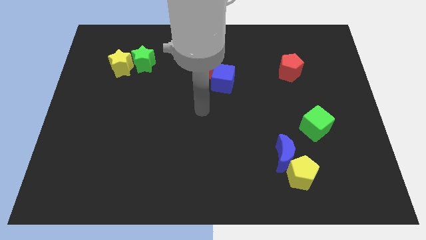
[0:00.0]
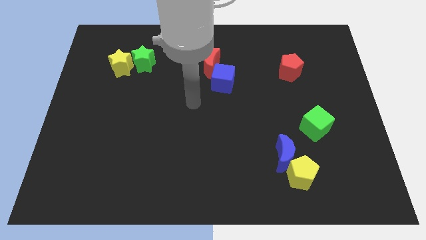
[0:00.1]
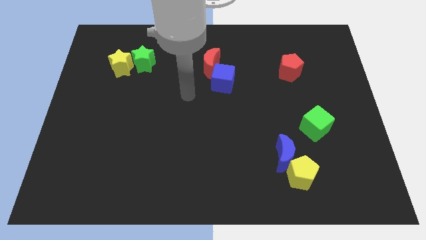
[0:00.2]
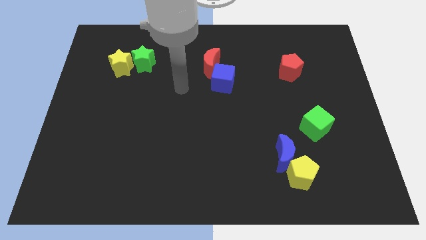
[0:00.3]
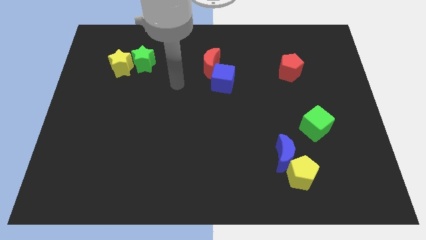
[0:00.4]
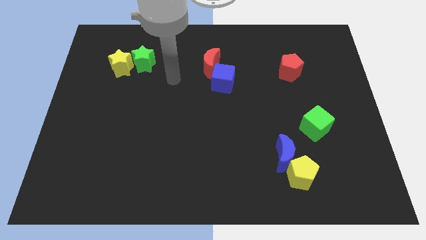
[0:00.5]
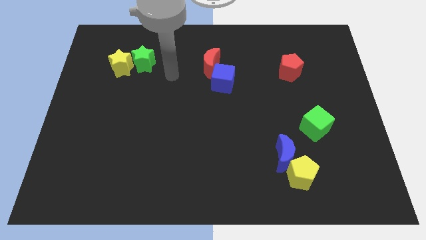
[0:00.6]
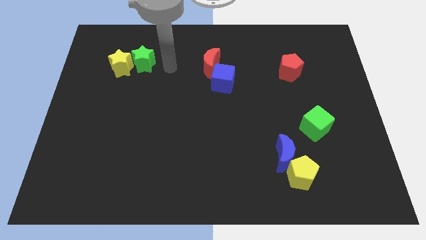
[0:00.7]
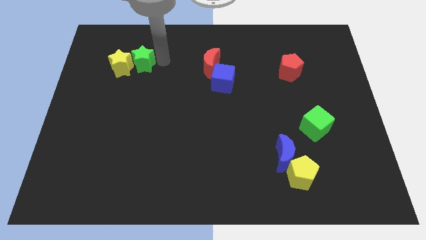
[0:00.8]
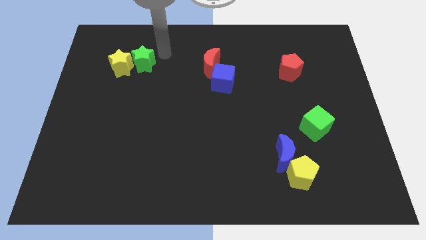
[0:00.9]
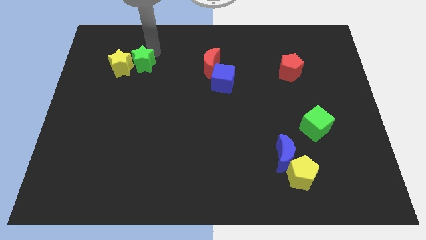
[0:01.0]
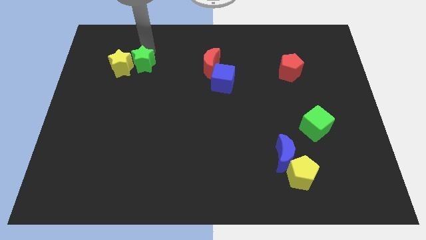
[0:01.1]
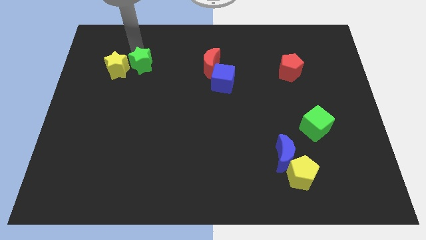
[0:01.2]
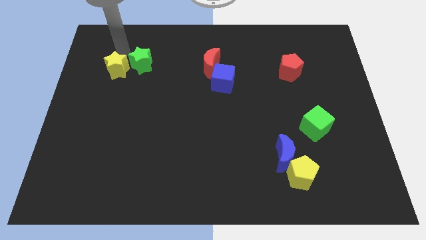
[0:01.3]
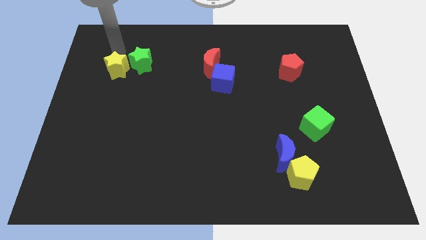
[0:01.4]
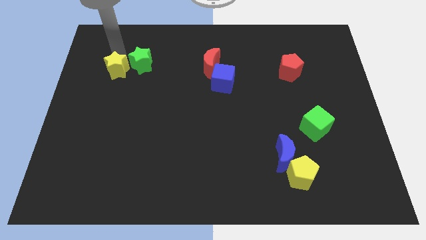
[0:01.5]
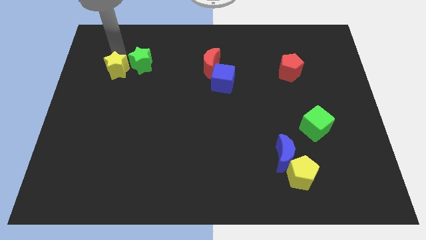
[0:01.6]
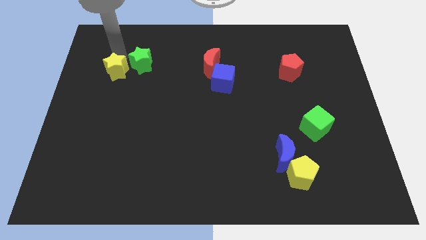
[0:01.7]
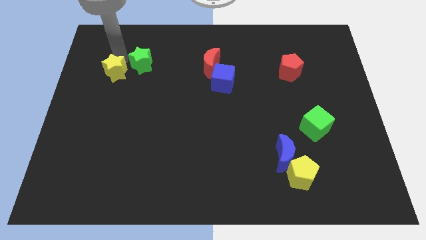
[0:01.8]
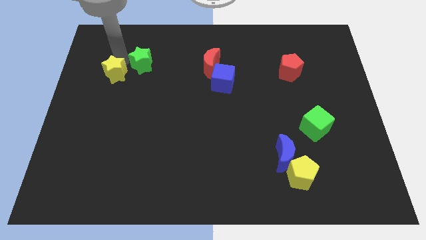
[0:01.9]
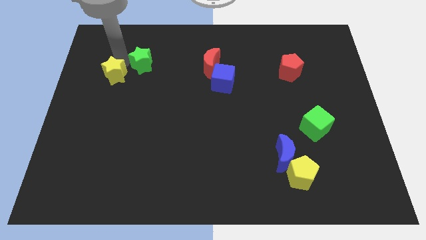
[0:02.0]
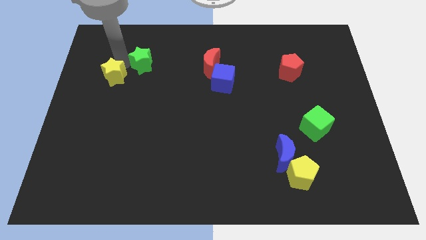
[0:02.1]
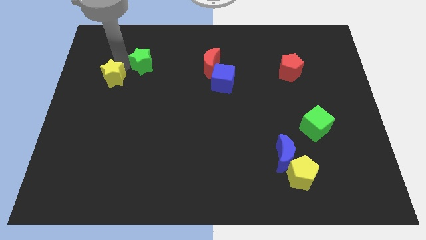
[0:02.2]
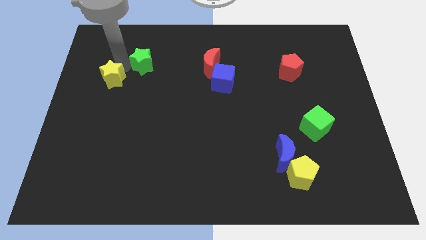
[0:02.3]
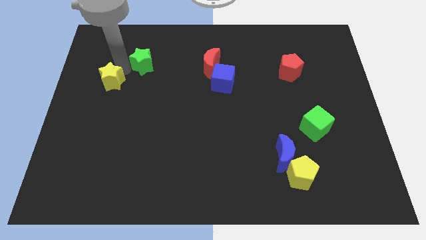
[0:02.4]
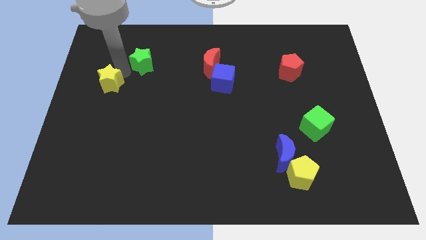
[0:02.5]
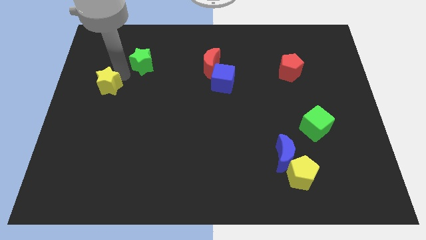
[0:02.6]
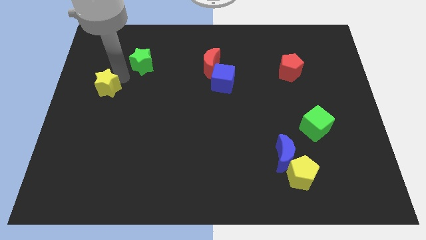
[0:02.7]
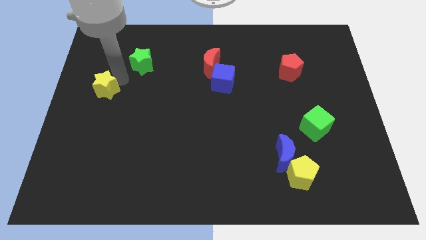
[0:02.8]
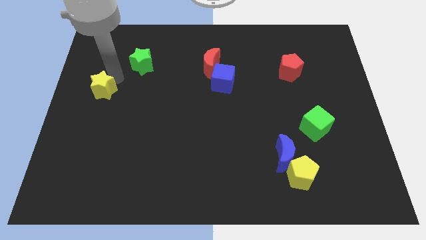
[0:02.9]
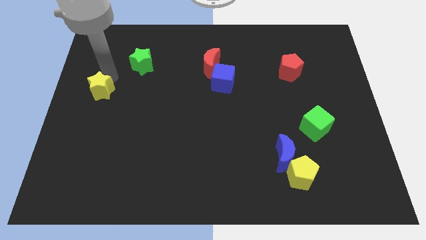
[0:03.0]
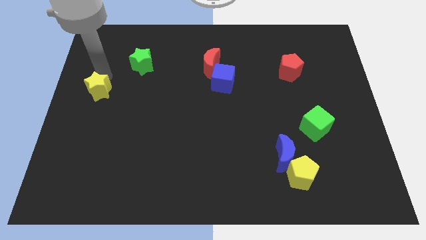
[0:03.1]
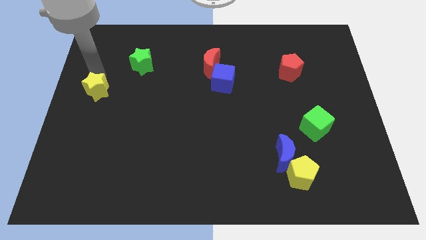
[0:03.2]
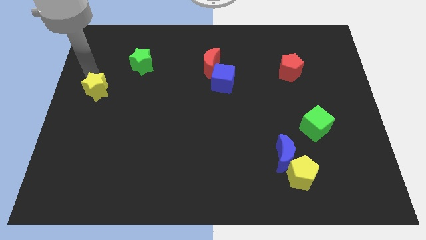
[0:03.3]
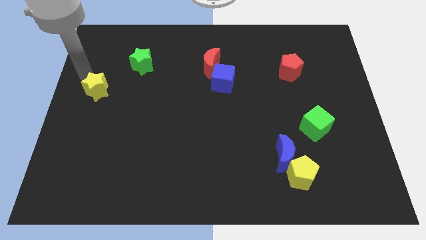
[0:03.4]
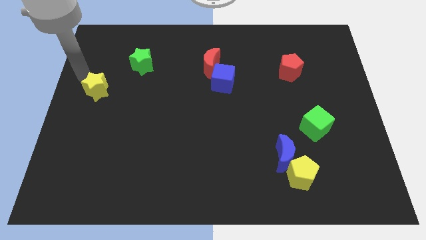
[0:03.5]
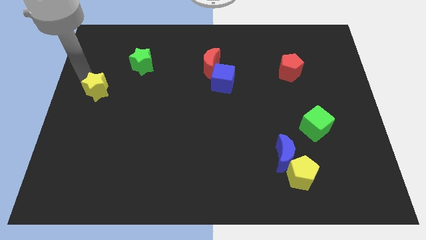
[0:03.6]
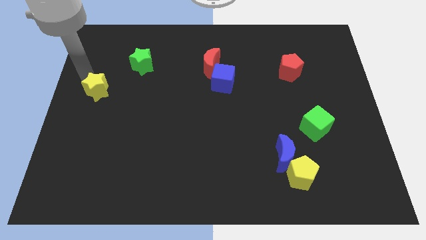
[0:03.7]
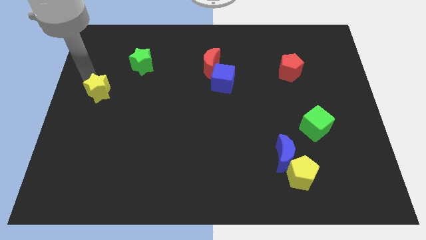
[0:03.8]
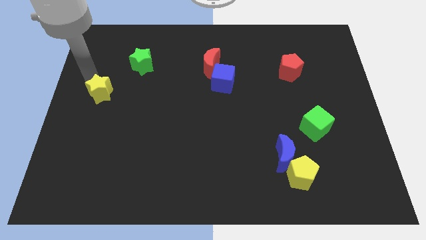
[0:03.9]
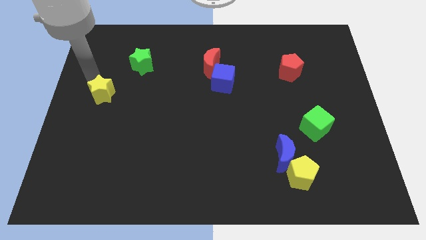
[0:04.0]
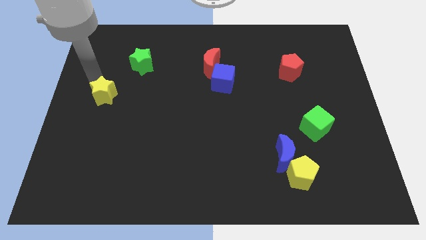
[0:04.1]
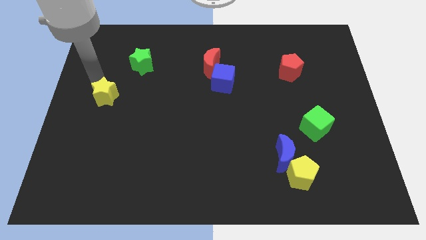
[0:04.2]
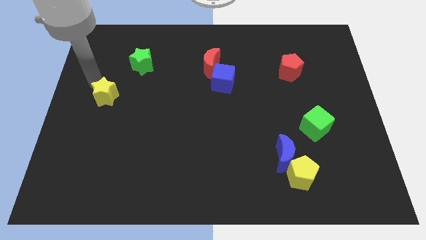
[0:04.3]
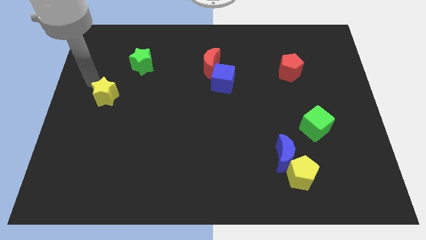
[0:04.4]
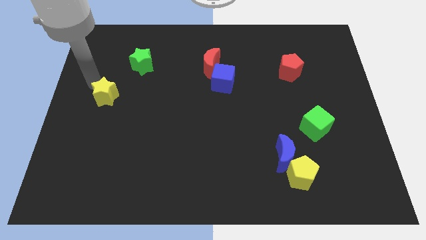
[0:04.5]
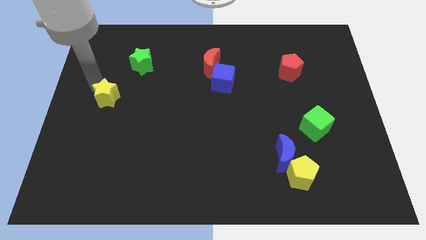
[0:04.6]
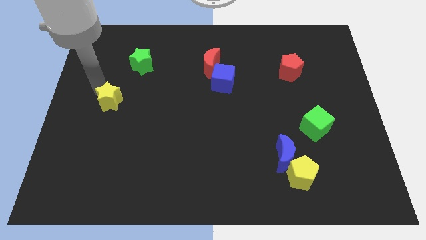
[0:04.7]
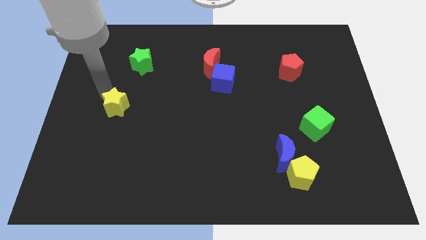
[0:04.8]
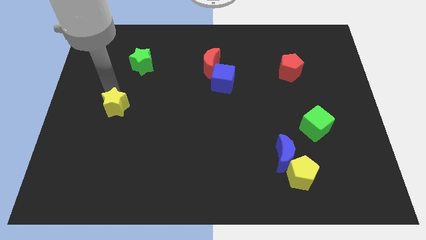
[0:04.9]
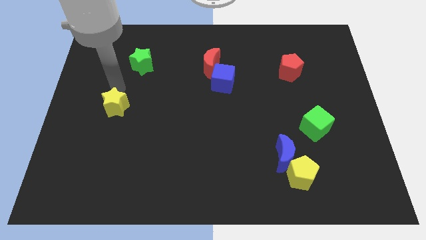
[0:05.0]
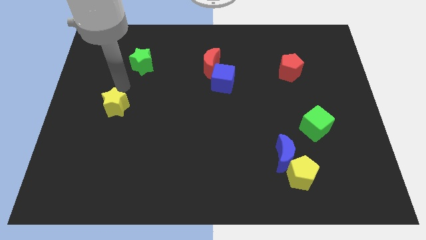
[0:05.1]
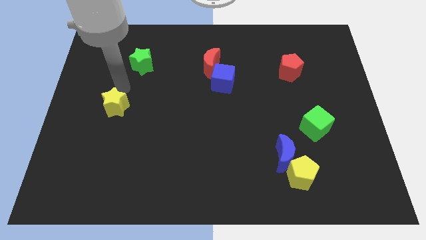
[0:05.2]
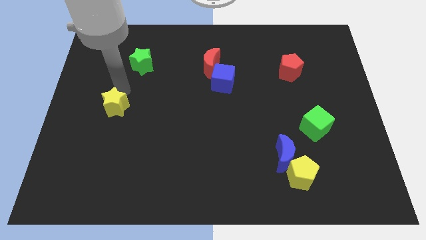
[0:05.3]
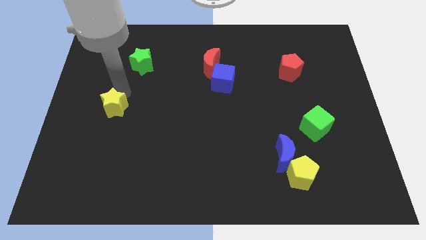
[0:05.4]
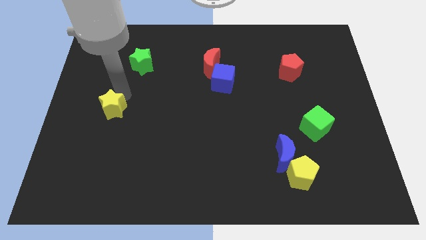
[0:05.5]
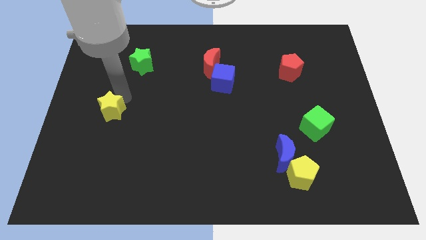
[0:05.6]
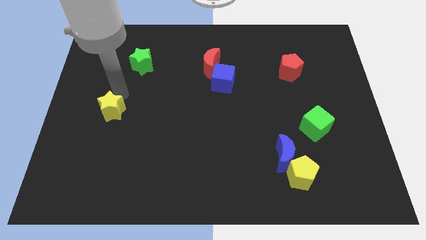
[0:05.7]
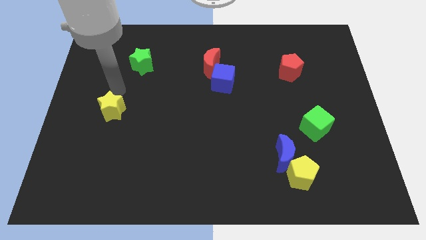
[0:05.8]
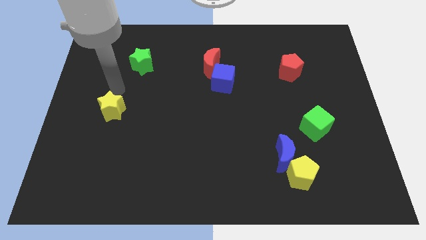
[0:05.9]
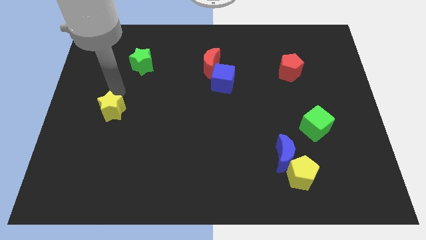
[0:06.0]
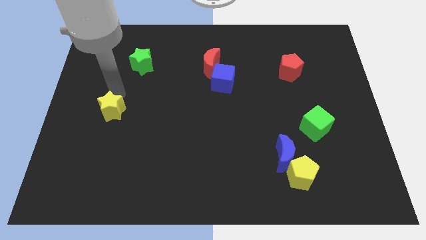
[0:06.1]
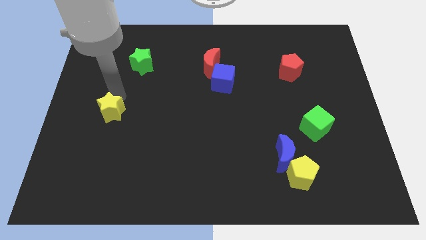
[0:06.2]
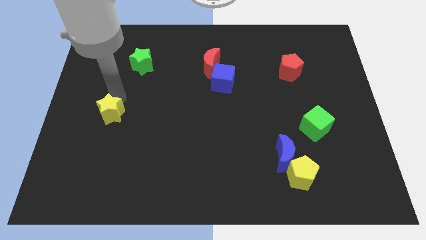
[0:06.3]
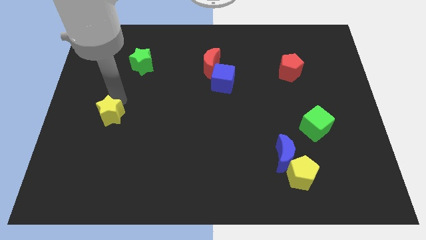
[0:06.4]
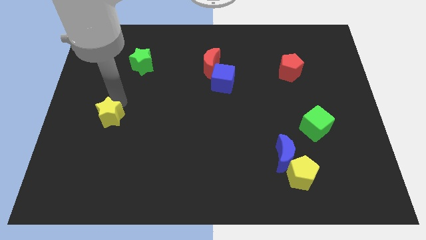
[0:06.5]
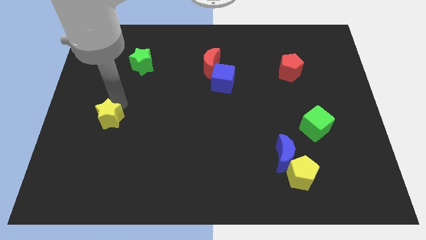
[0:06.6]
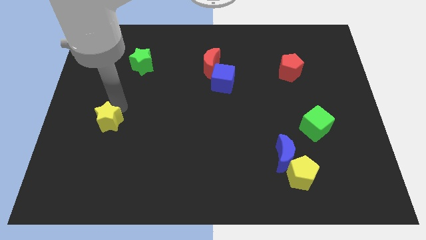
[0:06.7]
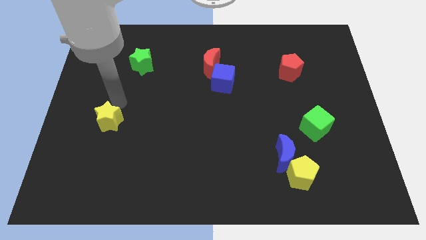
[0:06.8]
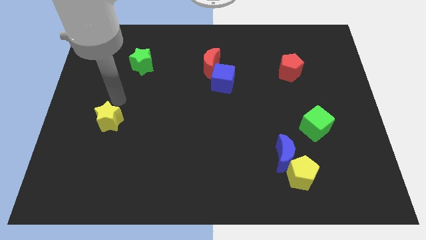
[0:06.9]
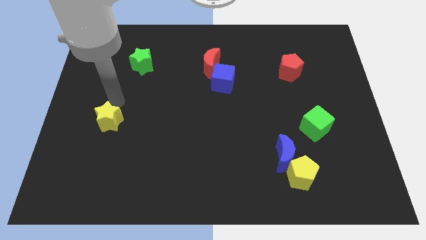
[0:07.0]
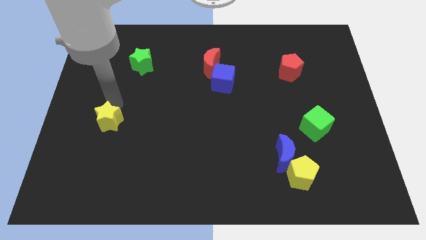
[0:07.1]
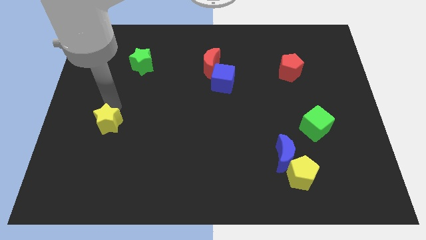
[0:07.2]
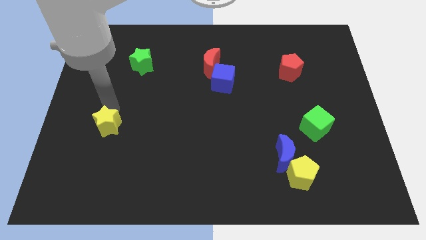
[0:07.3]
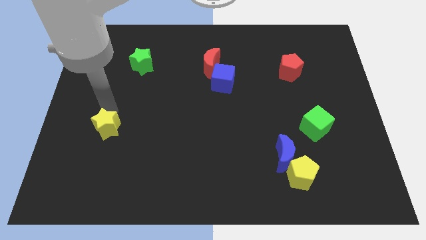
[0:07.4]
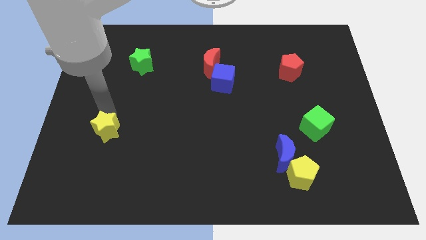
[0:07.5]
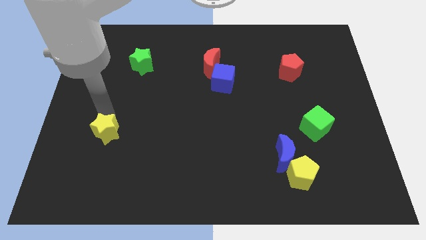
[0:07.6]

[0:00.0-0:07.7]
move the yellow star down

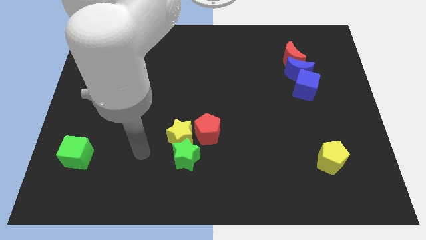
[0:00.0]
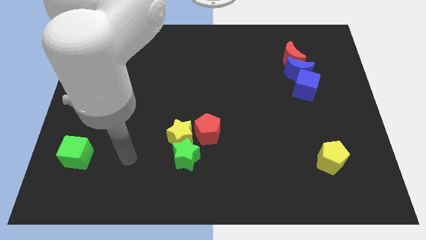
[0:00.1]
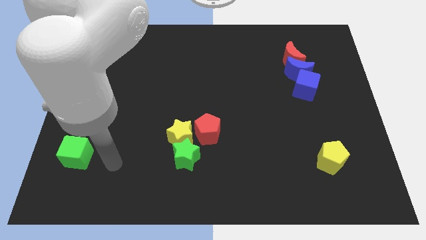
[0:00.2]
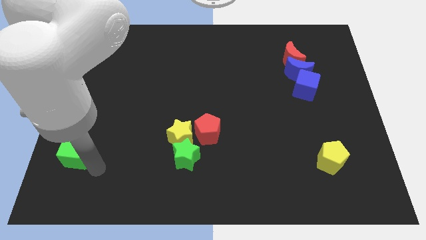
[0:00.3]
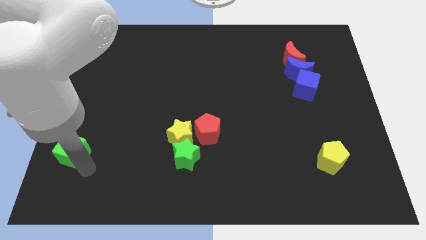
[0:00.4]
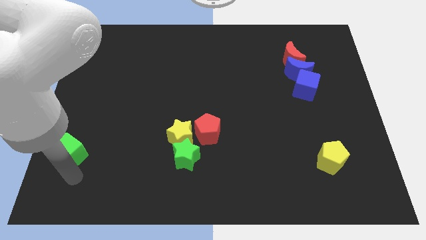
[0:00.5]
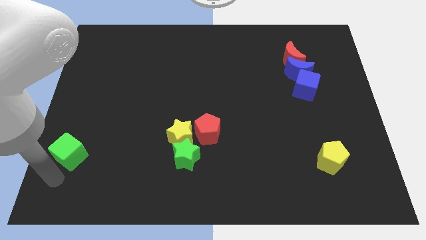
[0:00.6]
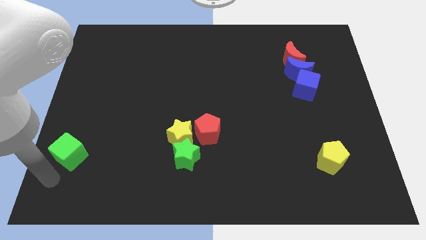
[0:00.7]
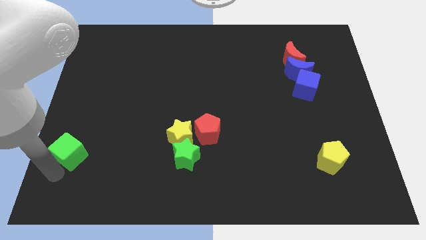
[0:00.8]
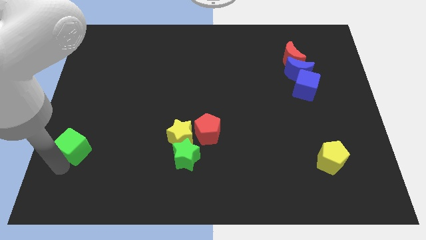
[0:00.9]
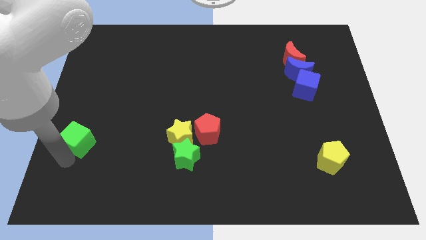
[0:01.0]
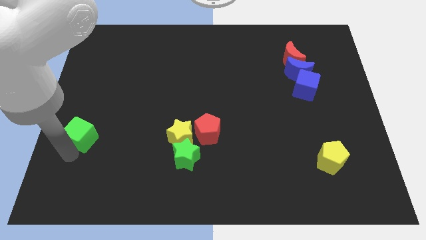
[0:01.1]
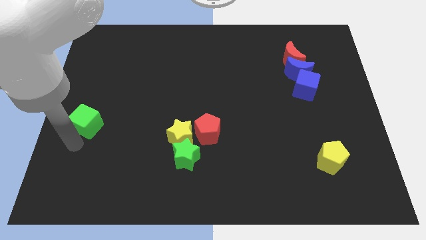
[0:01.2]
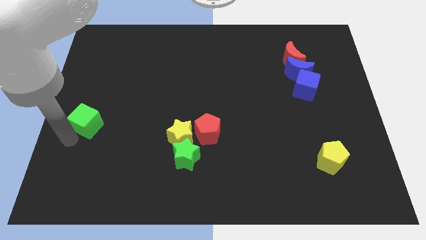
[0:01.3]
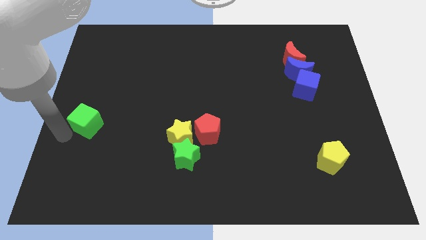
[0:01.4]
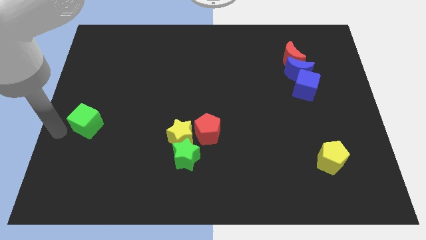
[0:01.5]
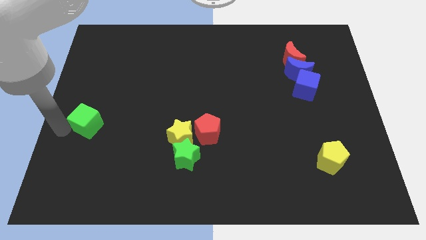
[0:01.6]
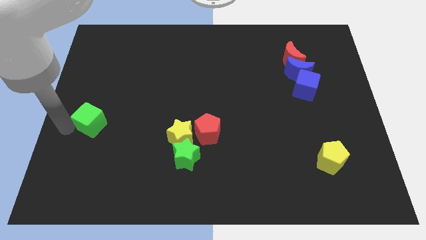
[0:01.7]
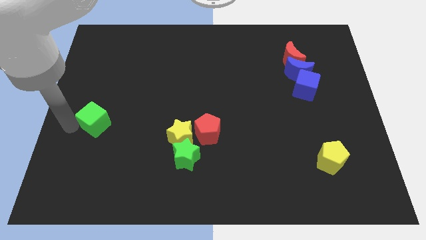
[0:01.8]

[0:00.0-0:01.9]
slide the green cube up and right diagonally slightly
